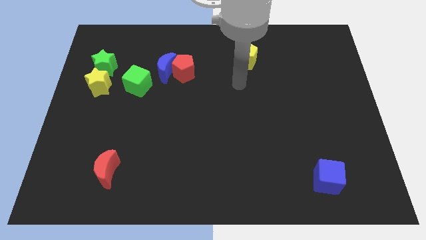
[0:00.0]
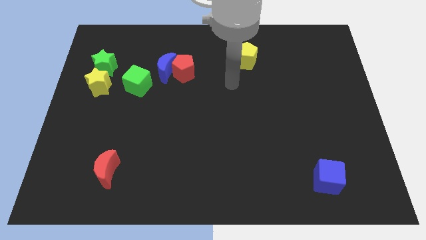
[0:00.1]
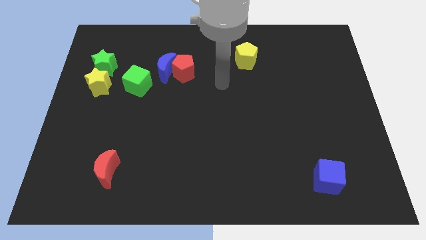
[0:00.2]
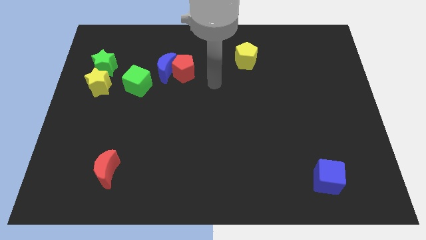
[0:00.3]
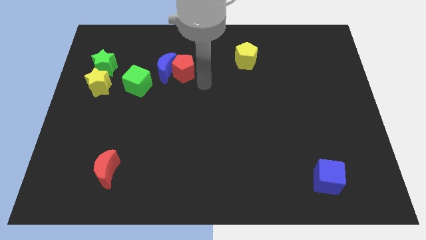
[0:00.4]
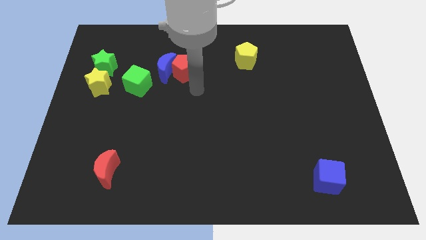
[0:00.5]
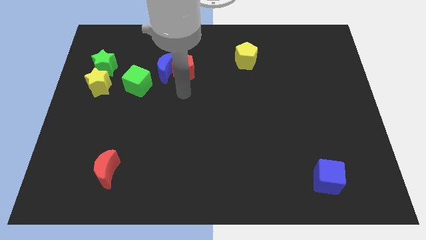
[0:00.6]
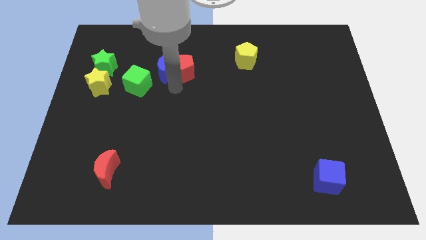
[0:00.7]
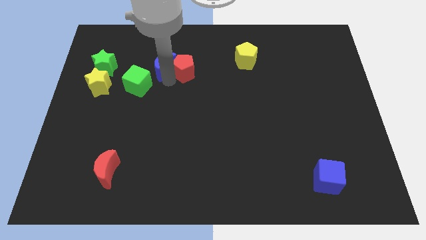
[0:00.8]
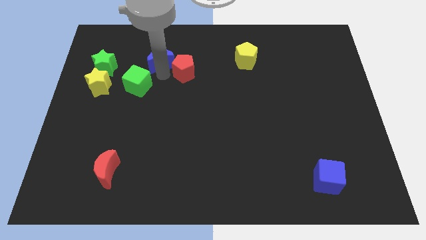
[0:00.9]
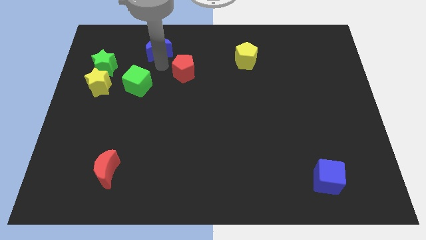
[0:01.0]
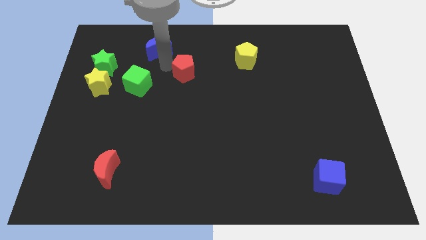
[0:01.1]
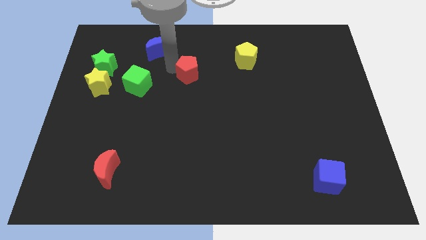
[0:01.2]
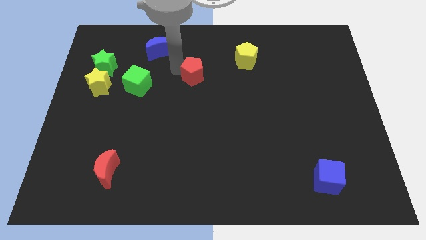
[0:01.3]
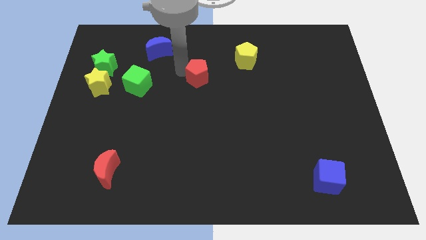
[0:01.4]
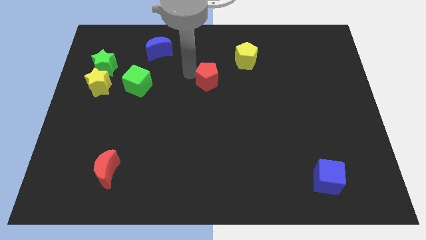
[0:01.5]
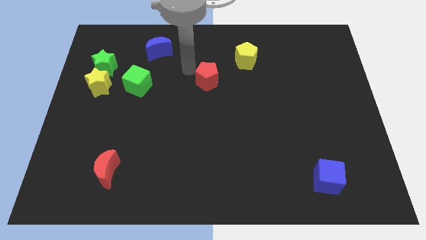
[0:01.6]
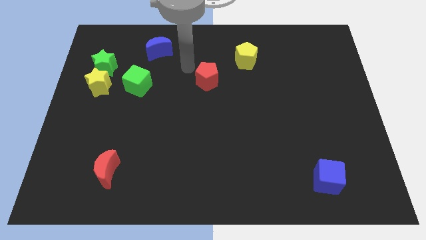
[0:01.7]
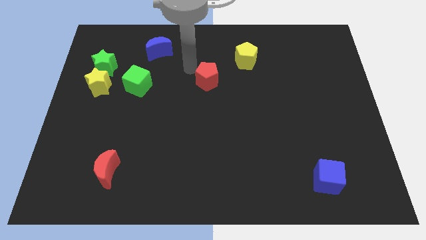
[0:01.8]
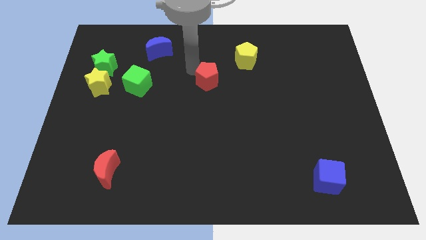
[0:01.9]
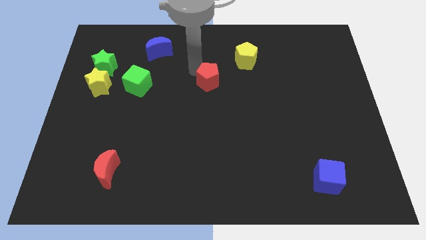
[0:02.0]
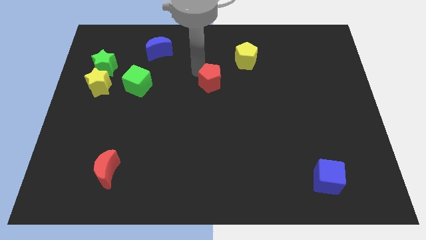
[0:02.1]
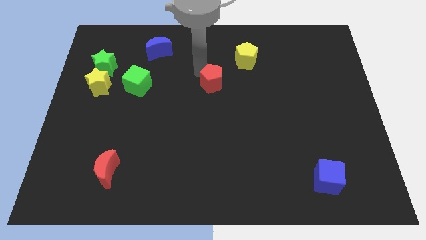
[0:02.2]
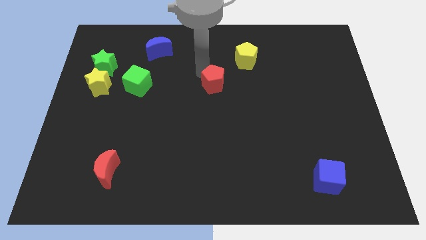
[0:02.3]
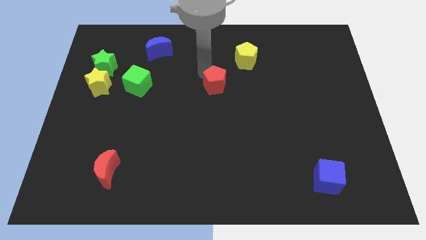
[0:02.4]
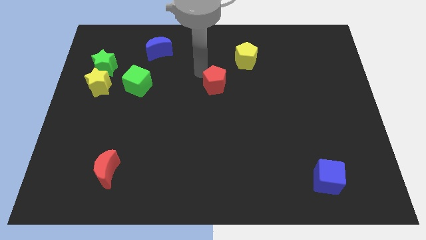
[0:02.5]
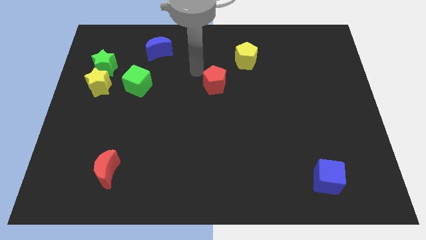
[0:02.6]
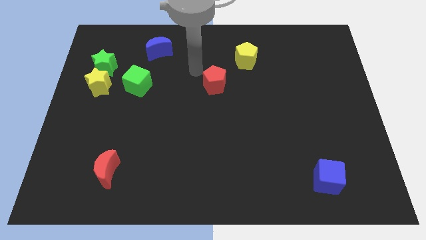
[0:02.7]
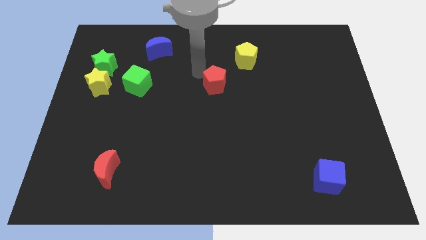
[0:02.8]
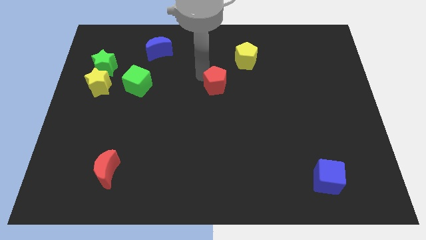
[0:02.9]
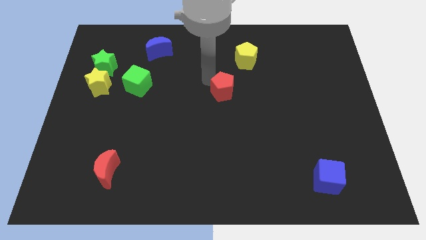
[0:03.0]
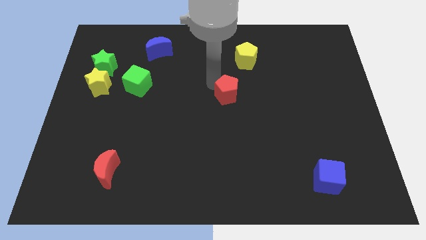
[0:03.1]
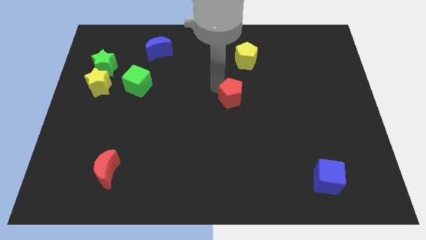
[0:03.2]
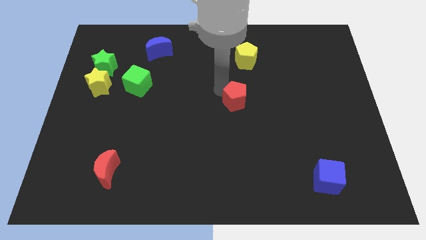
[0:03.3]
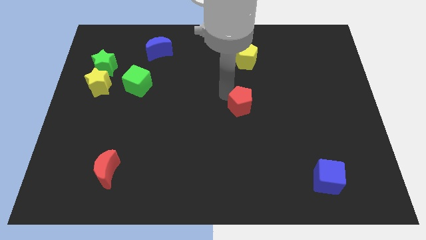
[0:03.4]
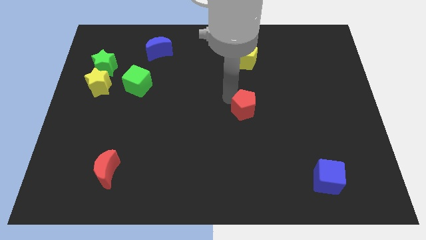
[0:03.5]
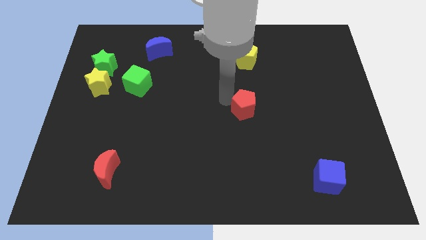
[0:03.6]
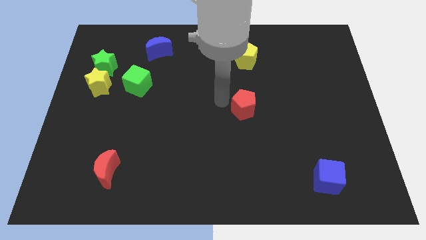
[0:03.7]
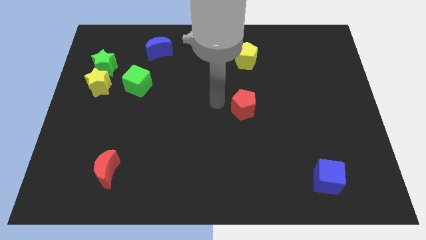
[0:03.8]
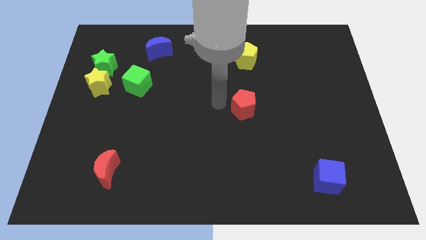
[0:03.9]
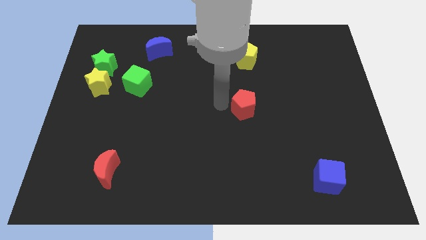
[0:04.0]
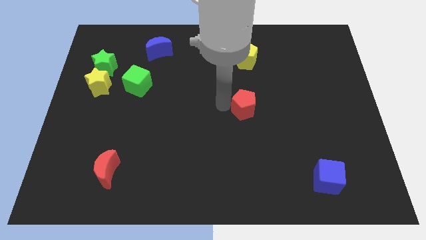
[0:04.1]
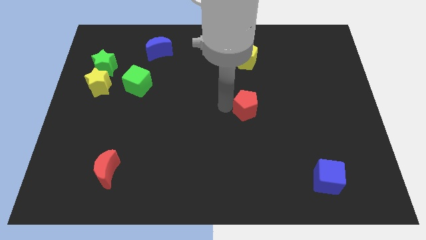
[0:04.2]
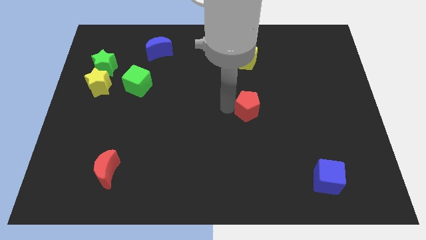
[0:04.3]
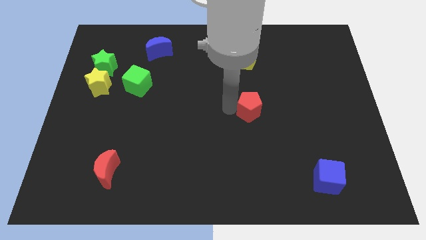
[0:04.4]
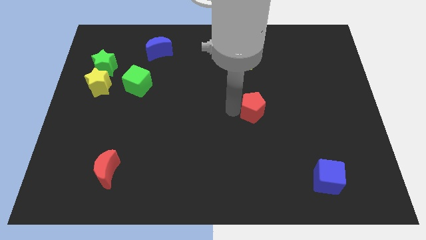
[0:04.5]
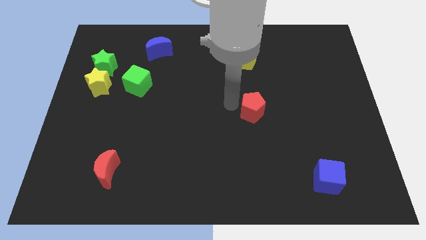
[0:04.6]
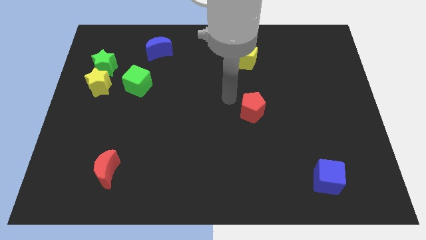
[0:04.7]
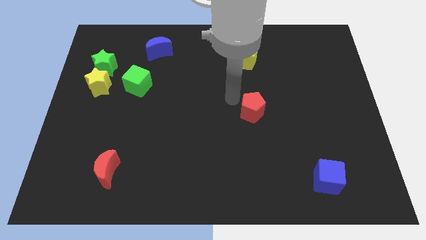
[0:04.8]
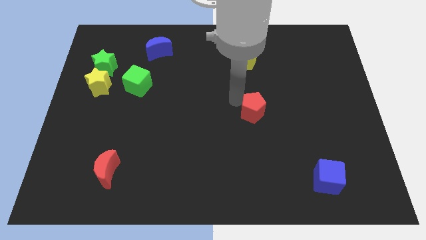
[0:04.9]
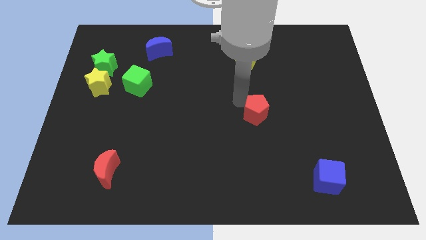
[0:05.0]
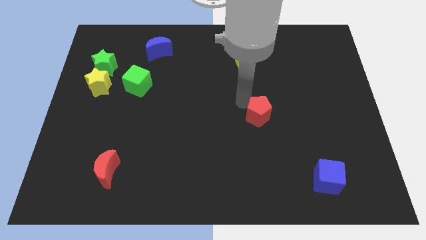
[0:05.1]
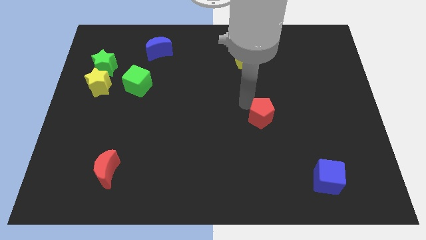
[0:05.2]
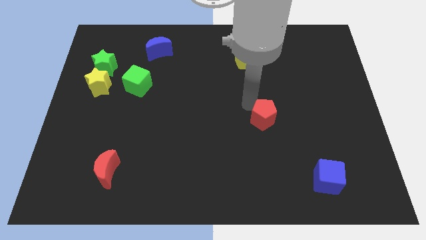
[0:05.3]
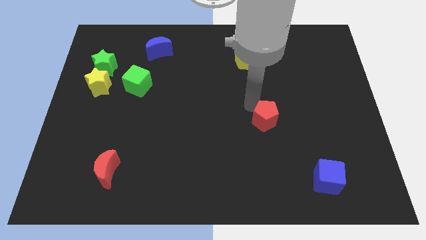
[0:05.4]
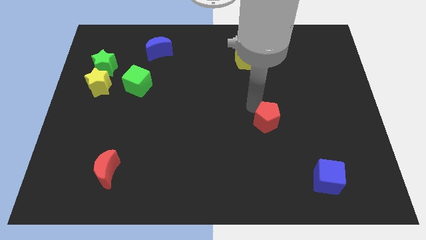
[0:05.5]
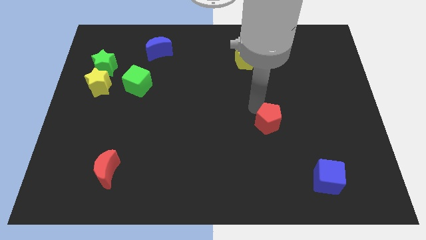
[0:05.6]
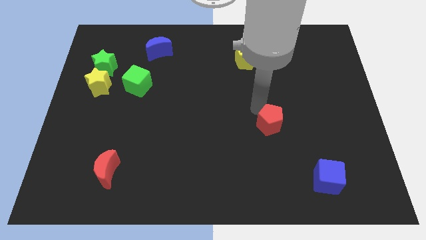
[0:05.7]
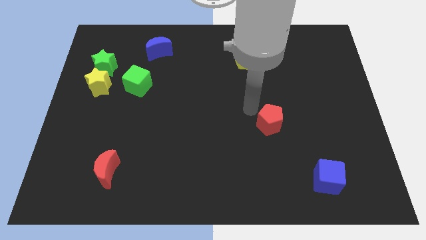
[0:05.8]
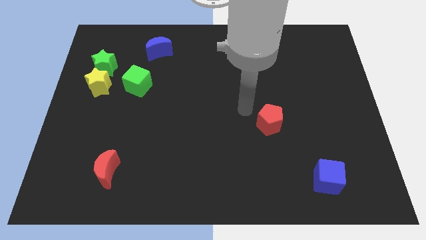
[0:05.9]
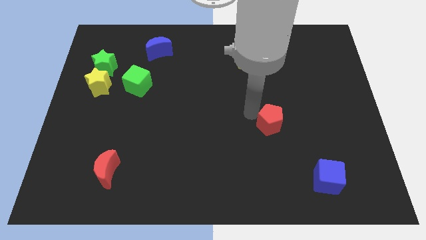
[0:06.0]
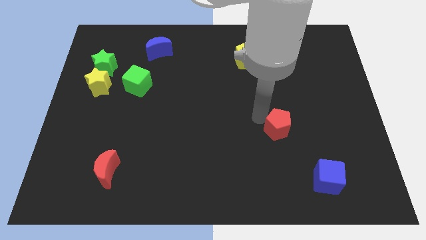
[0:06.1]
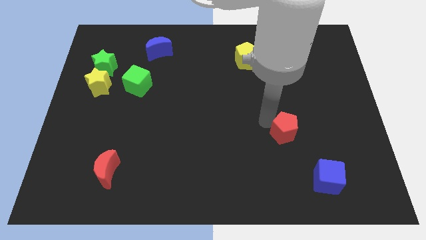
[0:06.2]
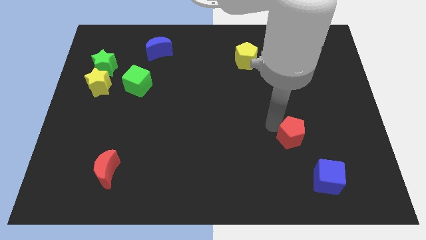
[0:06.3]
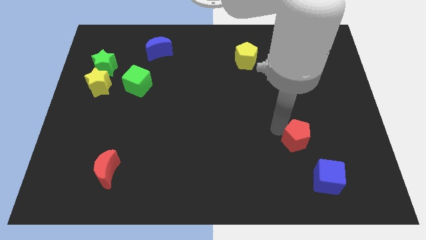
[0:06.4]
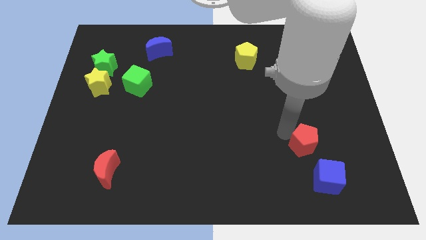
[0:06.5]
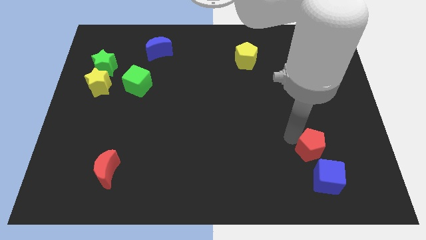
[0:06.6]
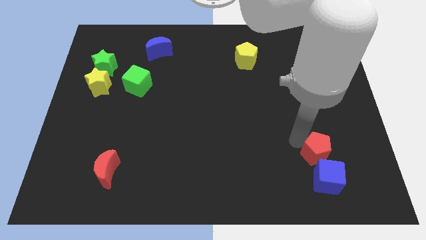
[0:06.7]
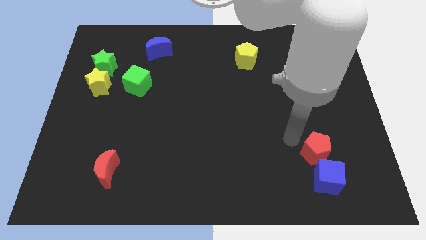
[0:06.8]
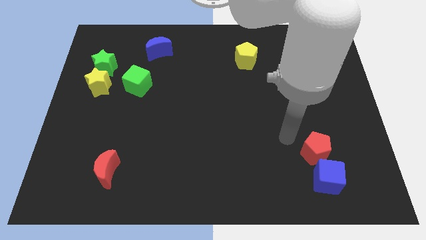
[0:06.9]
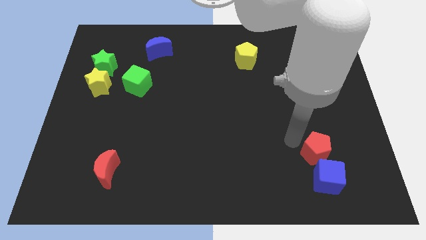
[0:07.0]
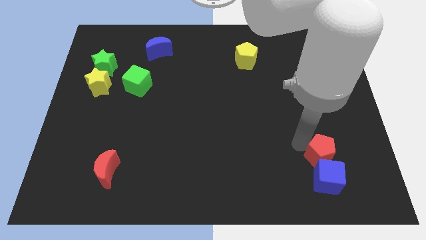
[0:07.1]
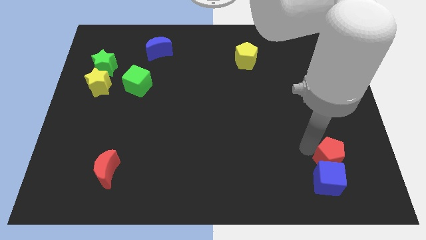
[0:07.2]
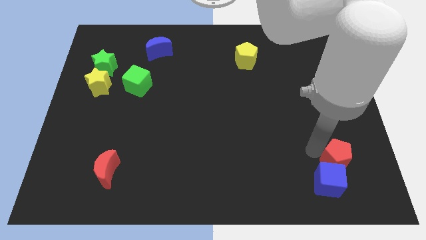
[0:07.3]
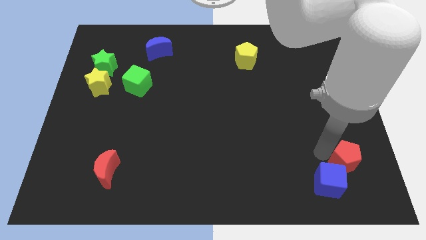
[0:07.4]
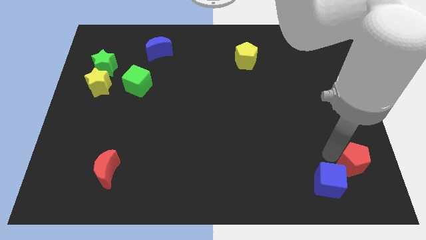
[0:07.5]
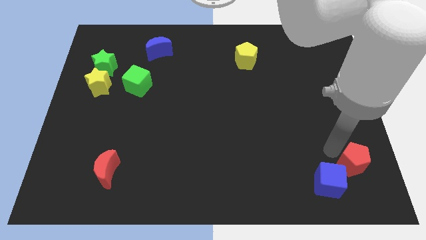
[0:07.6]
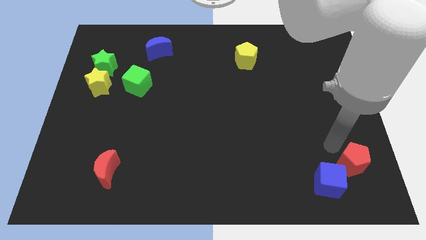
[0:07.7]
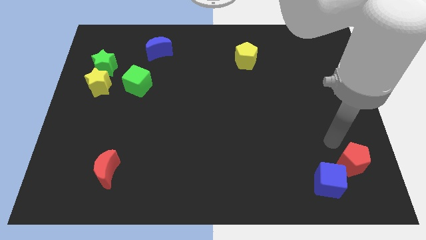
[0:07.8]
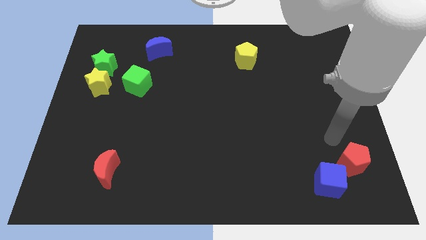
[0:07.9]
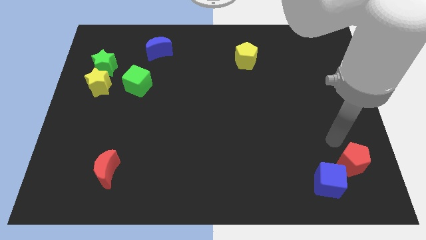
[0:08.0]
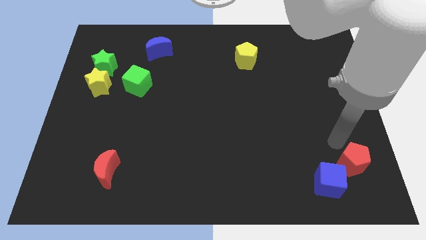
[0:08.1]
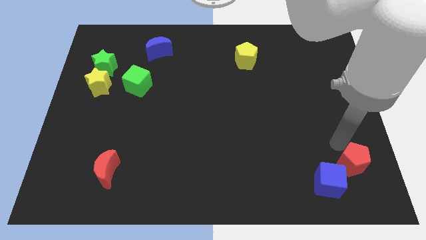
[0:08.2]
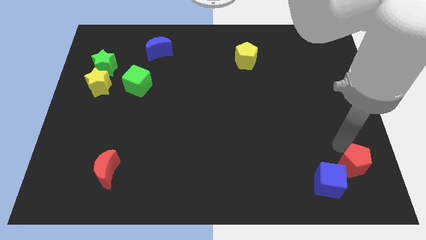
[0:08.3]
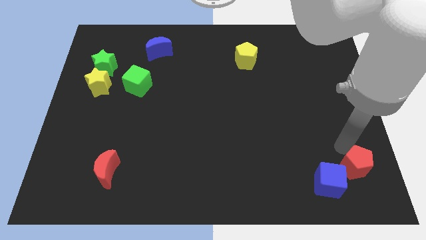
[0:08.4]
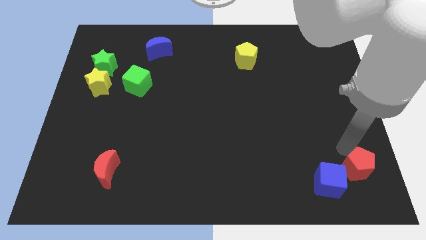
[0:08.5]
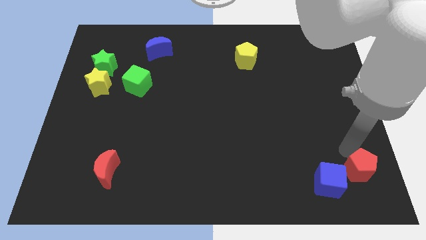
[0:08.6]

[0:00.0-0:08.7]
push the red pentagon to the bottom right of the board
